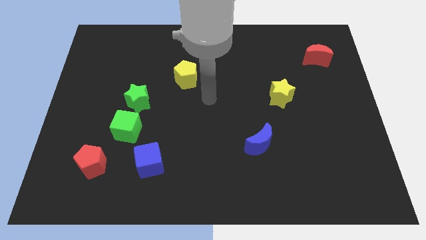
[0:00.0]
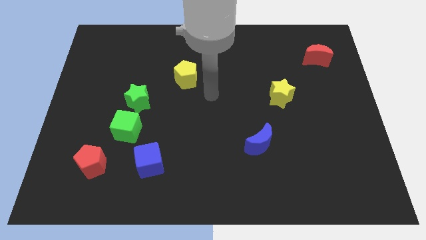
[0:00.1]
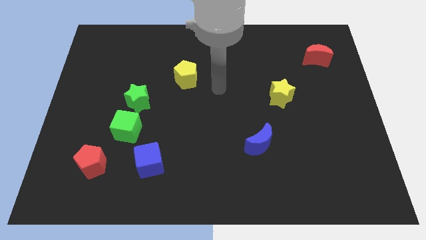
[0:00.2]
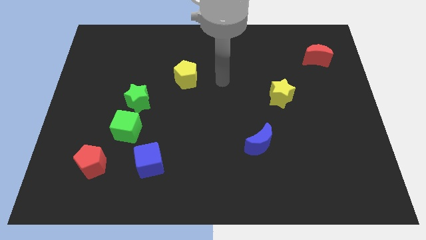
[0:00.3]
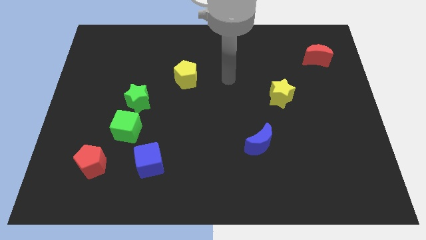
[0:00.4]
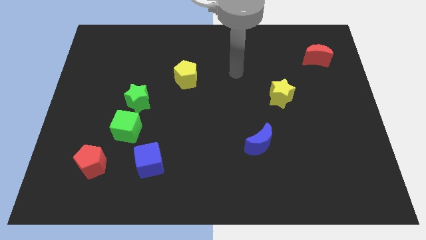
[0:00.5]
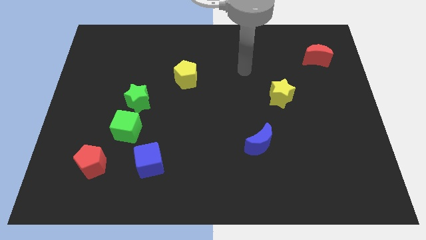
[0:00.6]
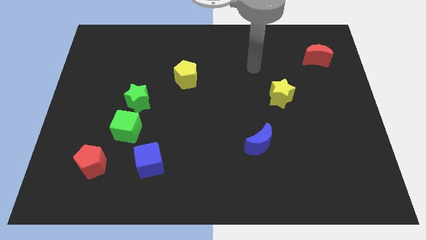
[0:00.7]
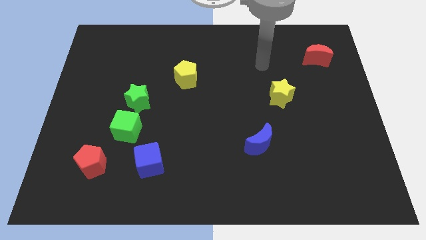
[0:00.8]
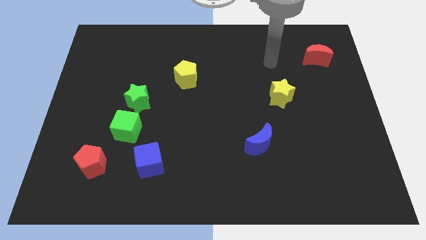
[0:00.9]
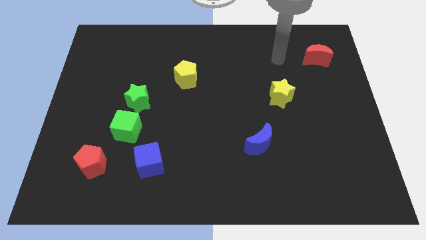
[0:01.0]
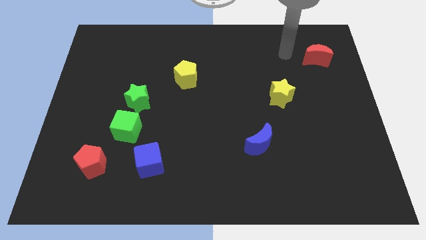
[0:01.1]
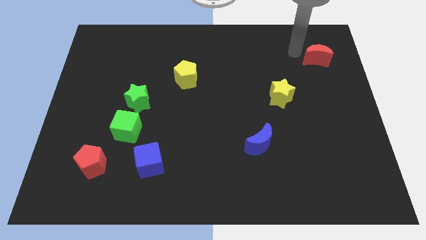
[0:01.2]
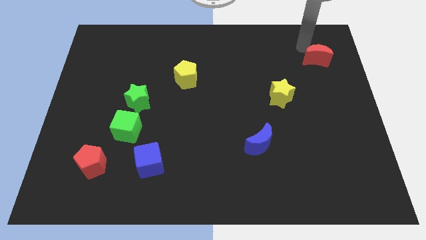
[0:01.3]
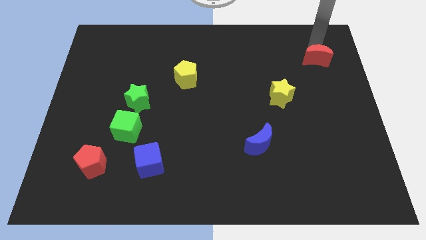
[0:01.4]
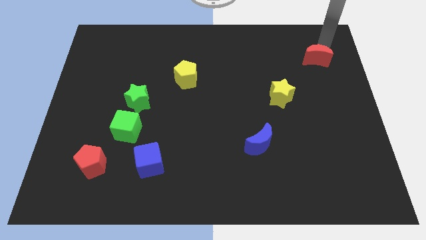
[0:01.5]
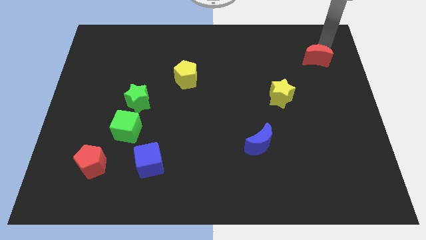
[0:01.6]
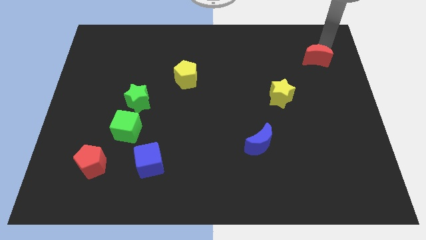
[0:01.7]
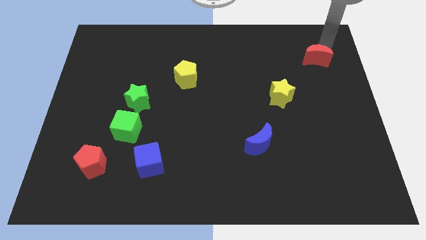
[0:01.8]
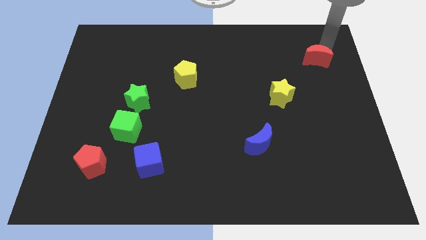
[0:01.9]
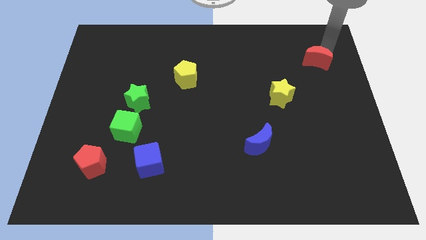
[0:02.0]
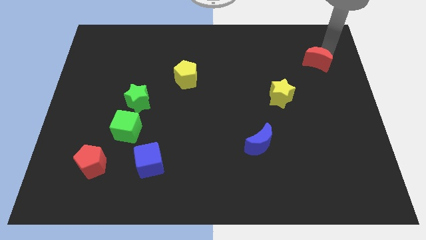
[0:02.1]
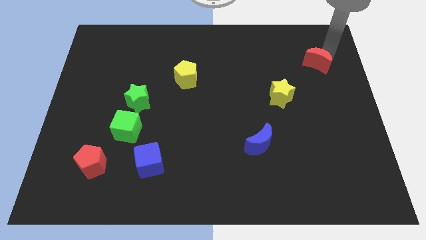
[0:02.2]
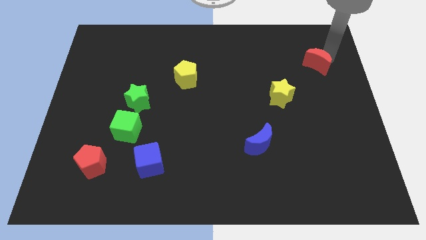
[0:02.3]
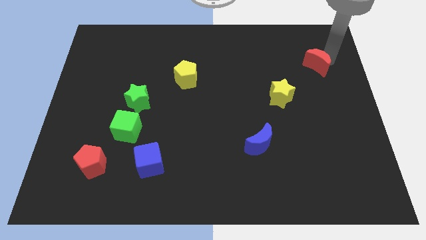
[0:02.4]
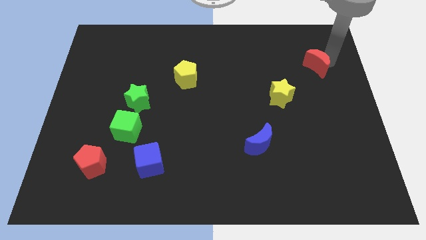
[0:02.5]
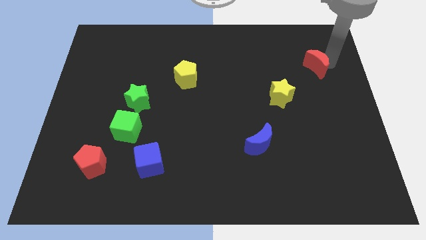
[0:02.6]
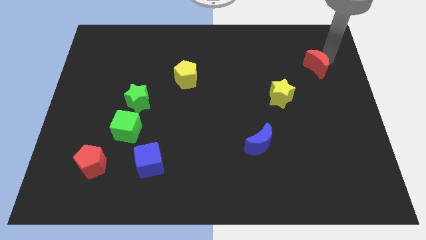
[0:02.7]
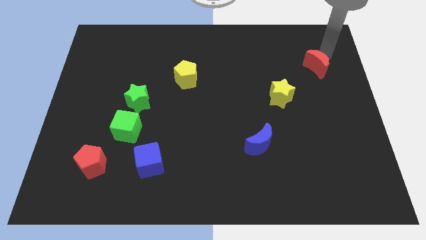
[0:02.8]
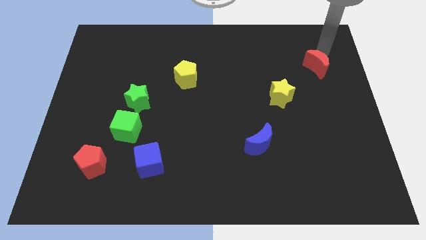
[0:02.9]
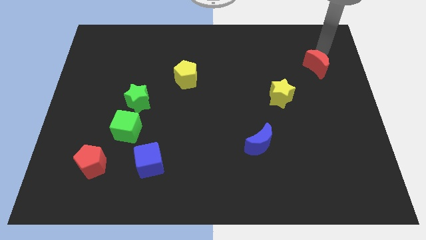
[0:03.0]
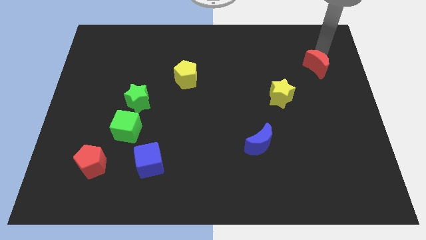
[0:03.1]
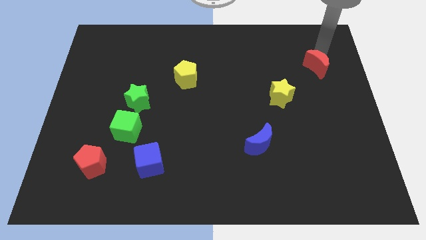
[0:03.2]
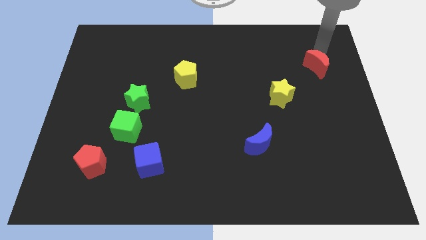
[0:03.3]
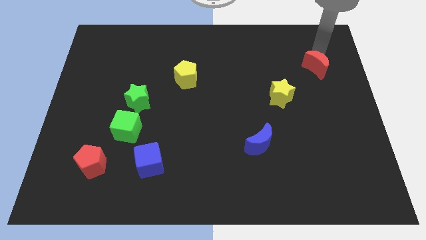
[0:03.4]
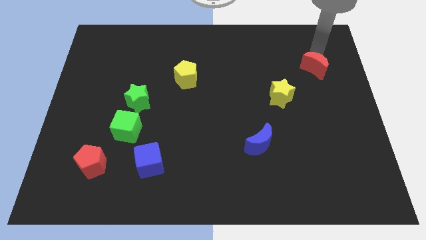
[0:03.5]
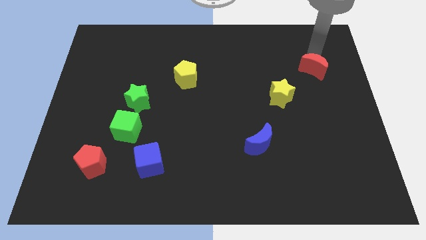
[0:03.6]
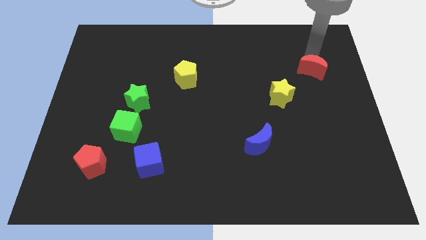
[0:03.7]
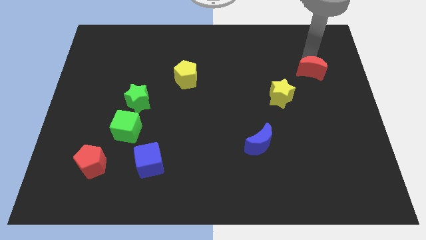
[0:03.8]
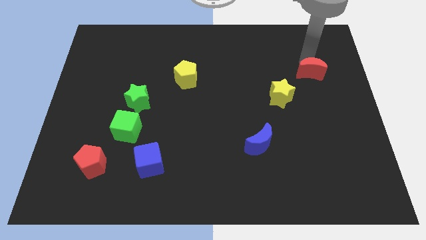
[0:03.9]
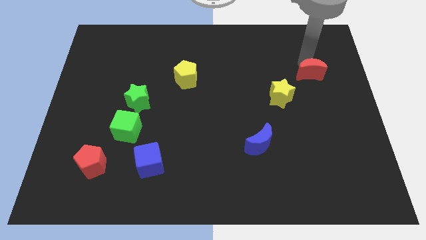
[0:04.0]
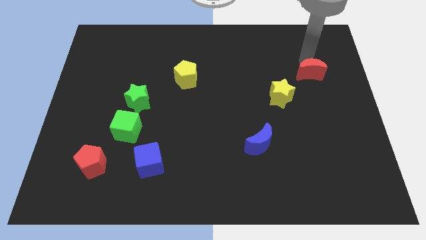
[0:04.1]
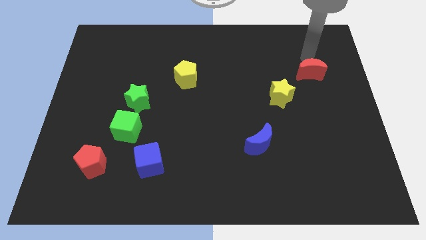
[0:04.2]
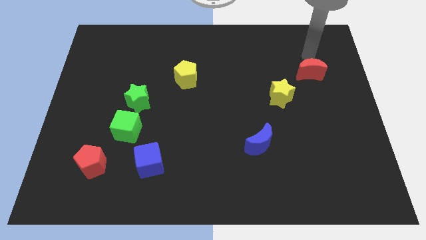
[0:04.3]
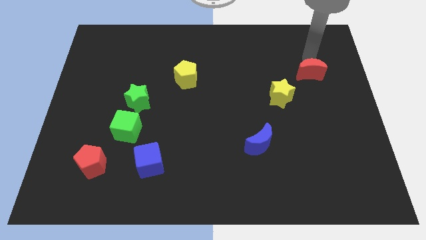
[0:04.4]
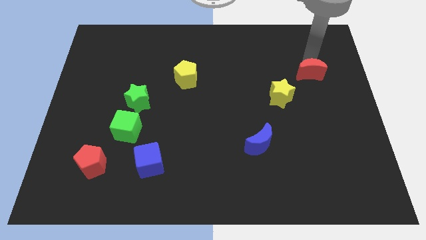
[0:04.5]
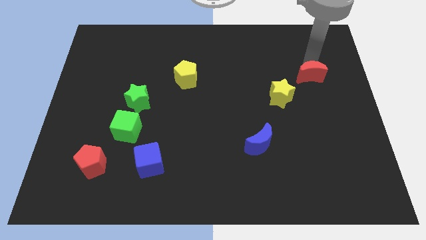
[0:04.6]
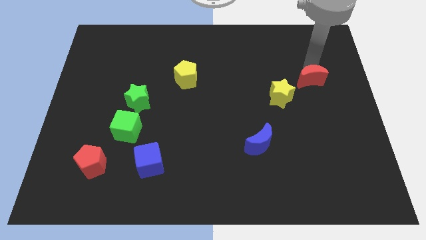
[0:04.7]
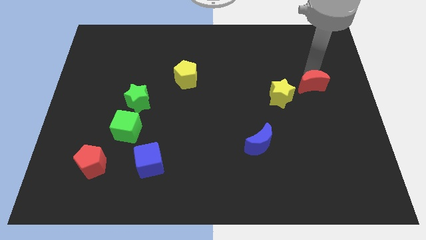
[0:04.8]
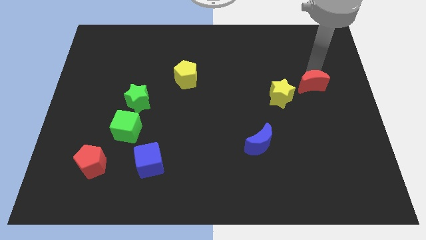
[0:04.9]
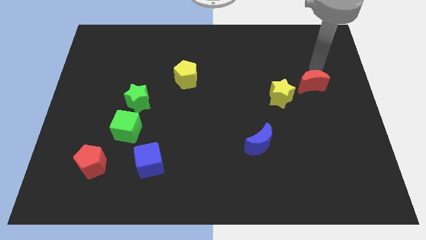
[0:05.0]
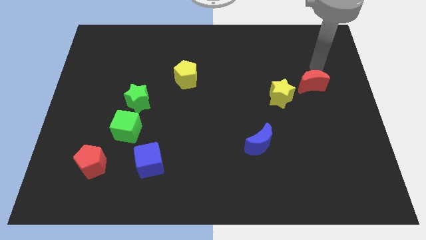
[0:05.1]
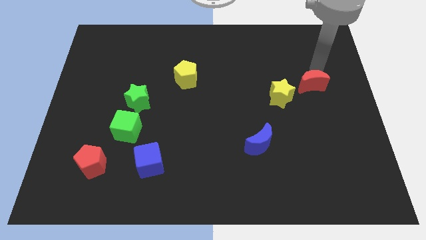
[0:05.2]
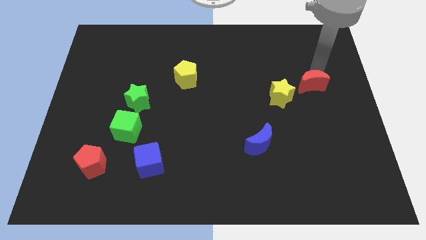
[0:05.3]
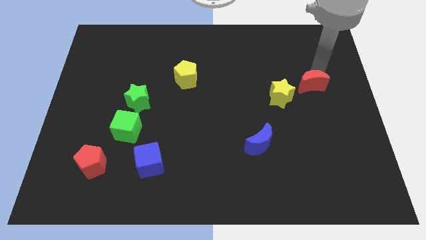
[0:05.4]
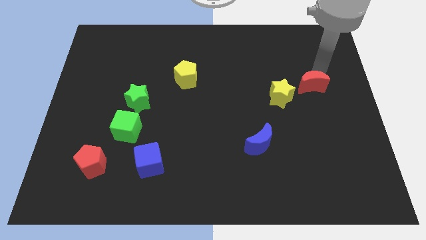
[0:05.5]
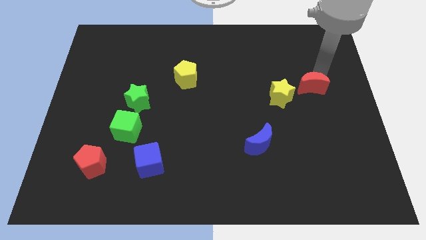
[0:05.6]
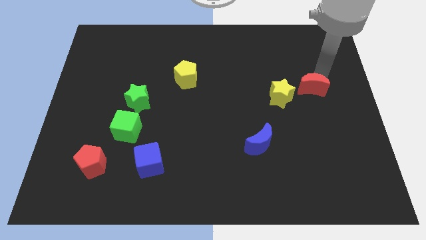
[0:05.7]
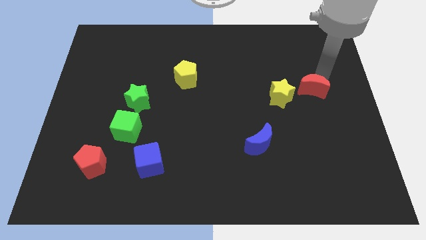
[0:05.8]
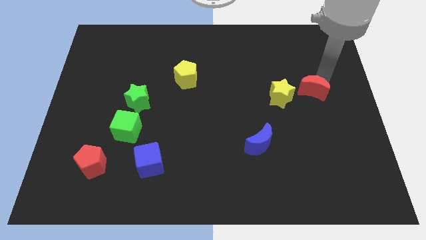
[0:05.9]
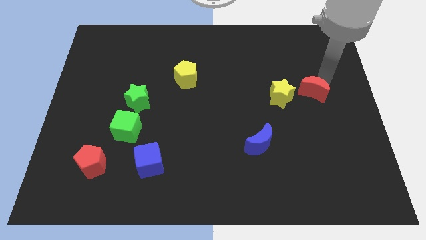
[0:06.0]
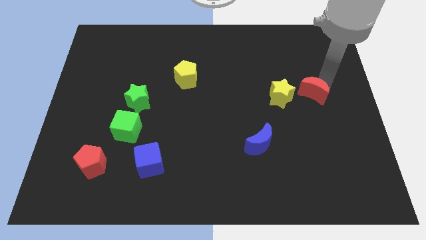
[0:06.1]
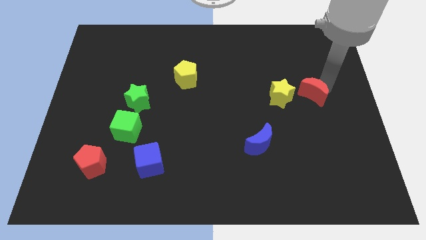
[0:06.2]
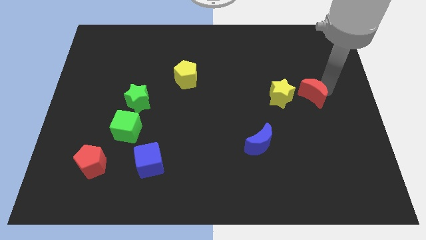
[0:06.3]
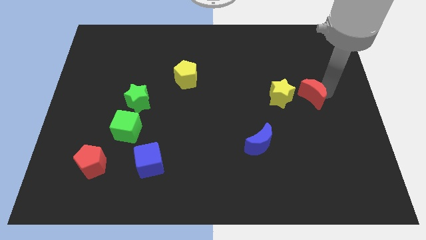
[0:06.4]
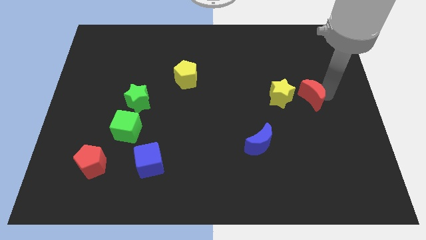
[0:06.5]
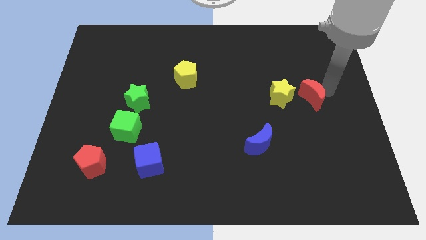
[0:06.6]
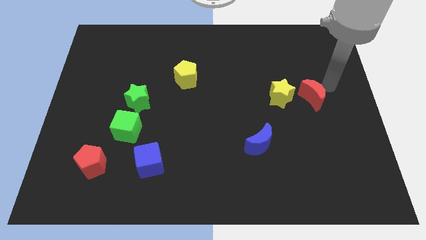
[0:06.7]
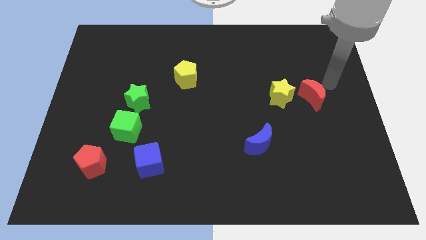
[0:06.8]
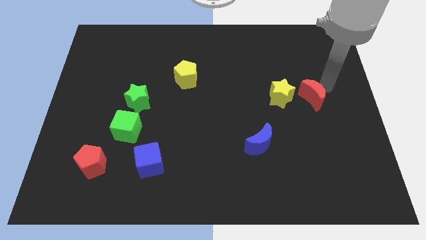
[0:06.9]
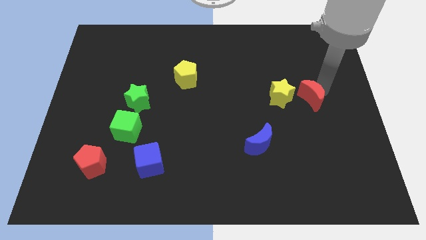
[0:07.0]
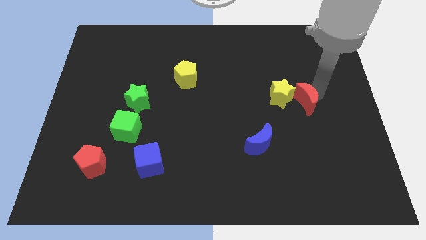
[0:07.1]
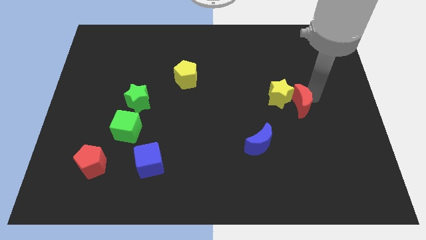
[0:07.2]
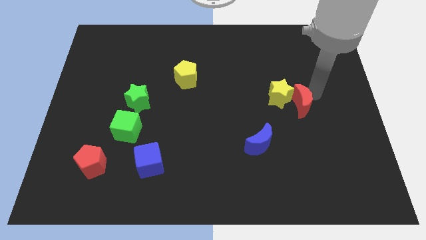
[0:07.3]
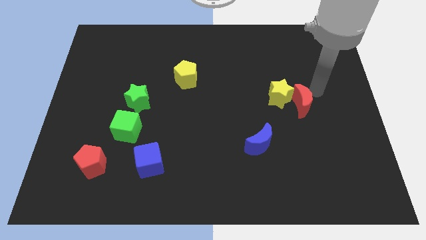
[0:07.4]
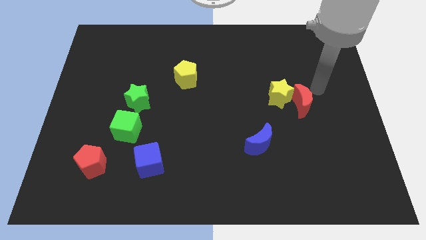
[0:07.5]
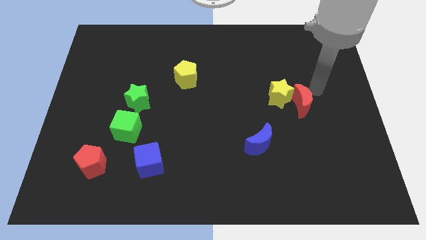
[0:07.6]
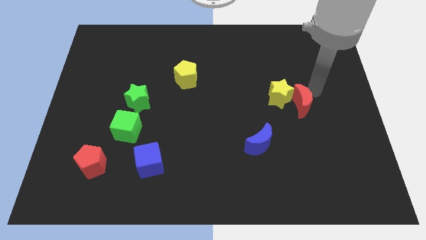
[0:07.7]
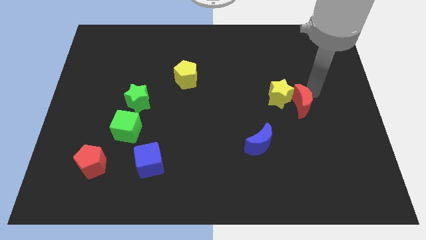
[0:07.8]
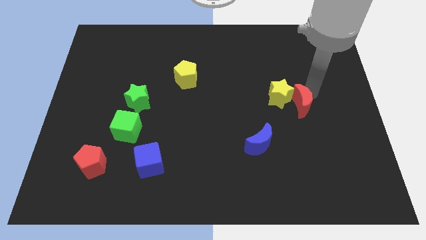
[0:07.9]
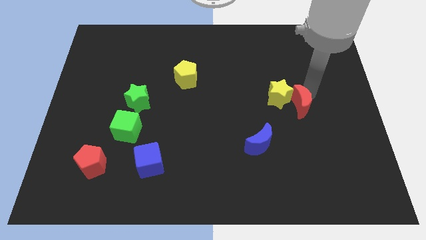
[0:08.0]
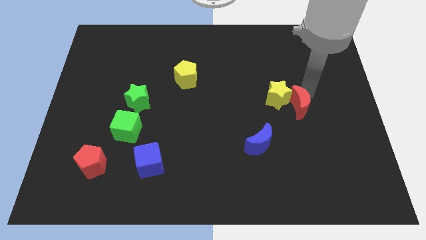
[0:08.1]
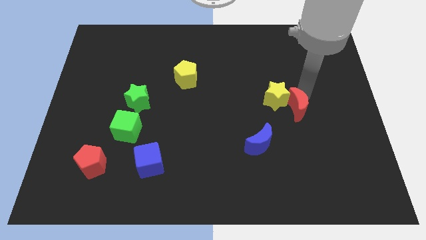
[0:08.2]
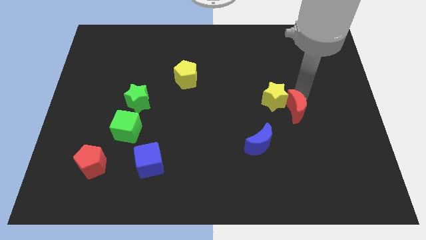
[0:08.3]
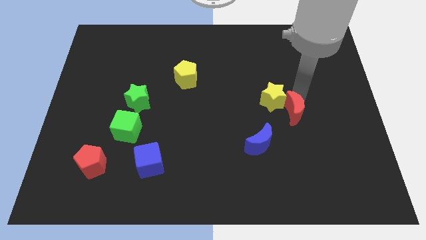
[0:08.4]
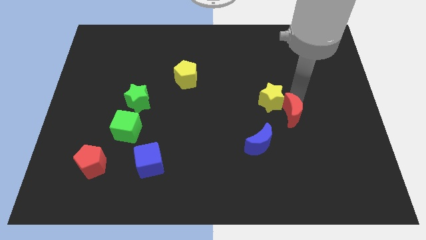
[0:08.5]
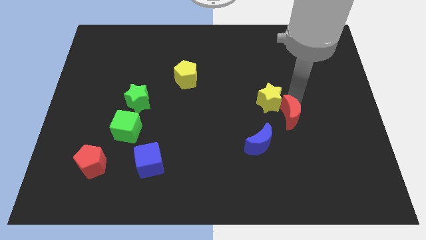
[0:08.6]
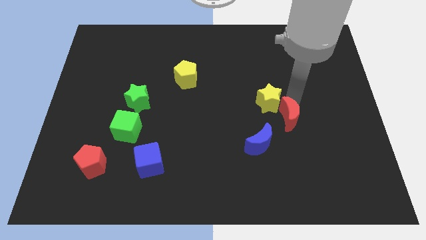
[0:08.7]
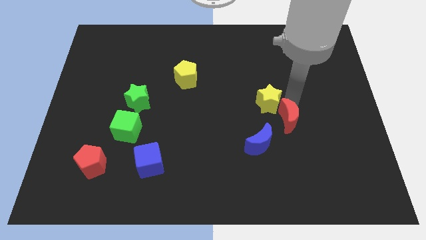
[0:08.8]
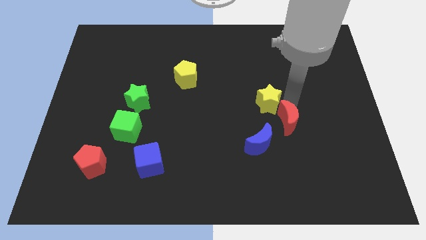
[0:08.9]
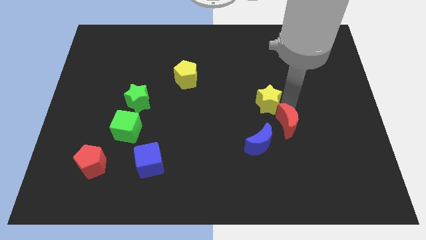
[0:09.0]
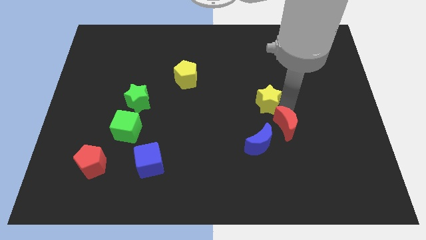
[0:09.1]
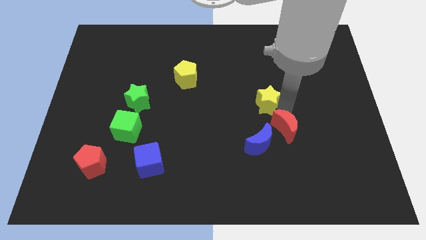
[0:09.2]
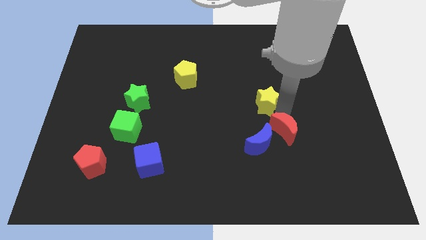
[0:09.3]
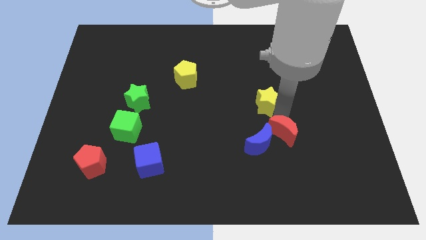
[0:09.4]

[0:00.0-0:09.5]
slide the red moon next to the blue moon
